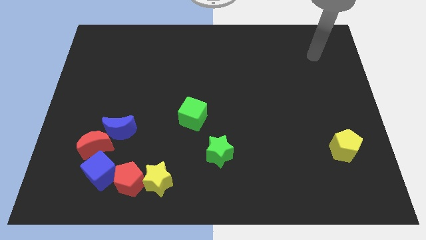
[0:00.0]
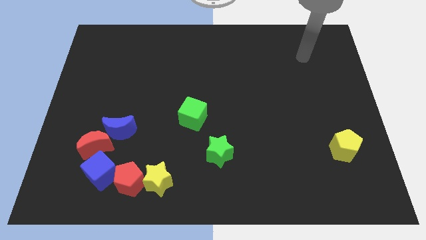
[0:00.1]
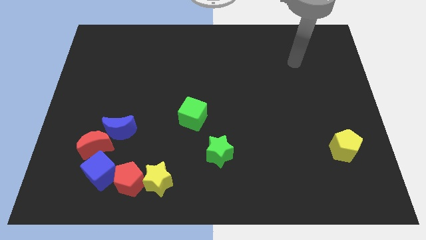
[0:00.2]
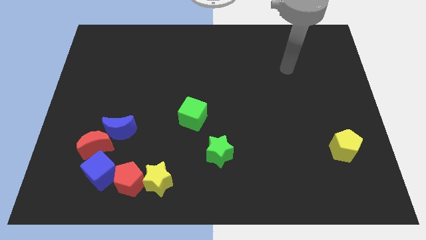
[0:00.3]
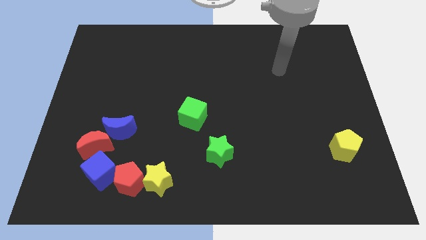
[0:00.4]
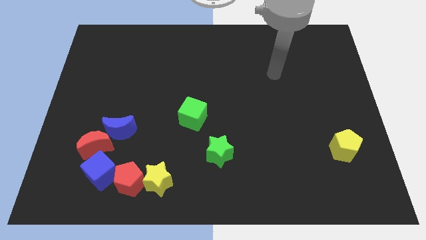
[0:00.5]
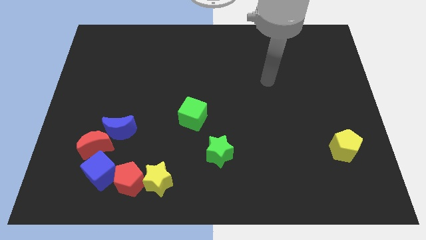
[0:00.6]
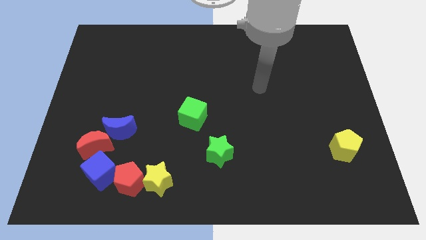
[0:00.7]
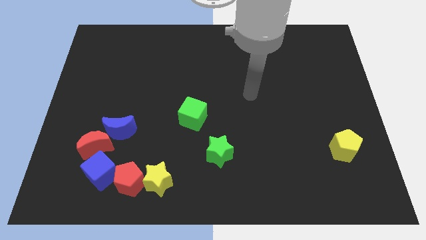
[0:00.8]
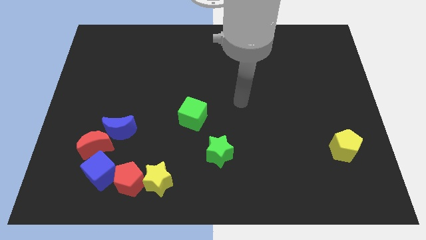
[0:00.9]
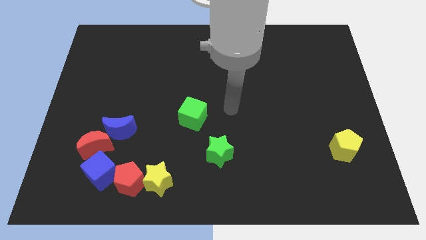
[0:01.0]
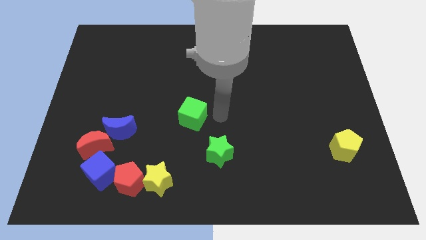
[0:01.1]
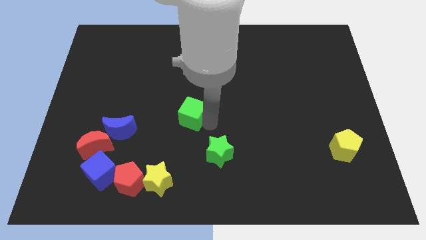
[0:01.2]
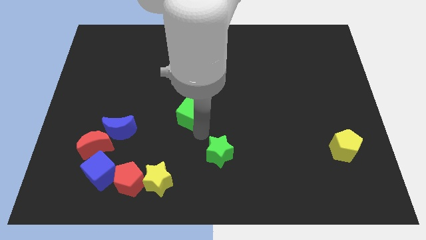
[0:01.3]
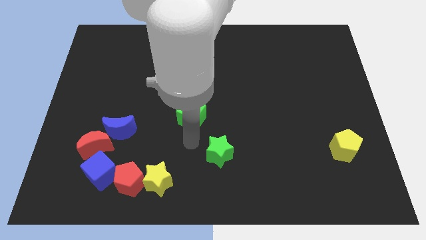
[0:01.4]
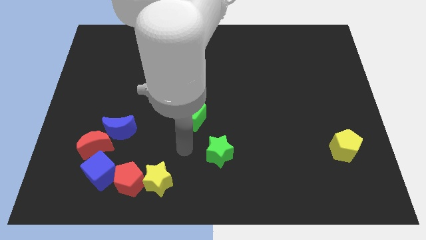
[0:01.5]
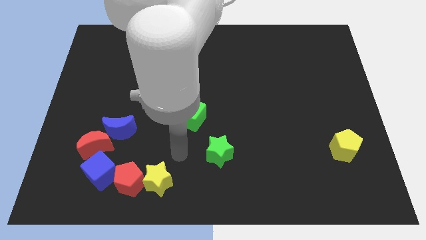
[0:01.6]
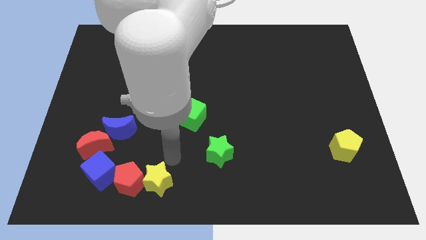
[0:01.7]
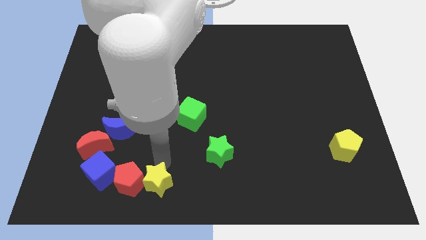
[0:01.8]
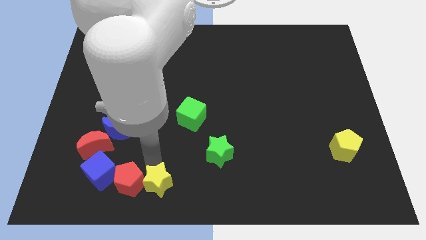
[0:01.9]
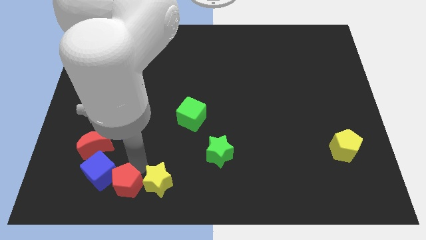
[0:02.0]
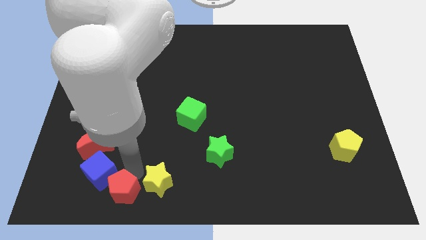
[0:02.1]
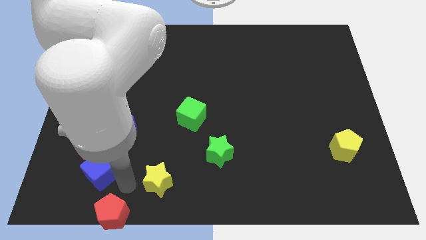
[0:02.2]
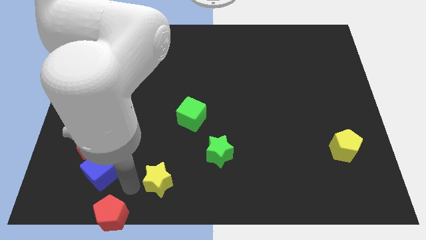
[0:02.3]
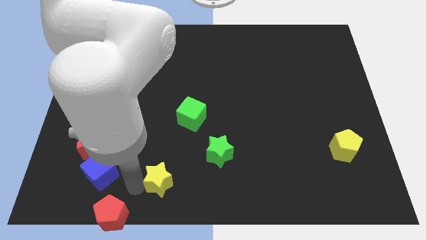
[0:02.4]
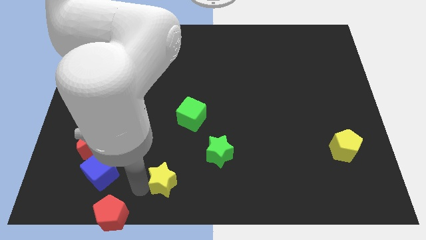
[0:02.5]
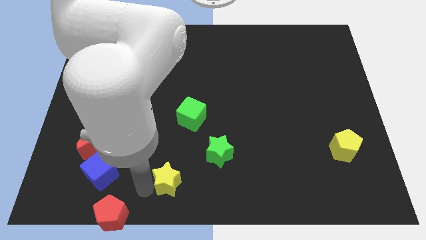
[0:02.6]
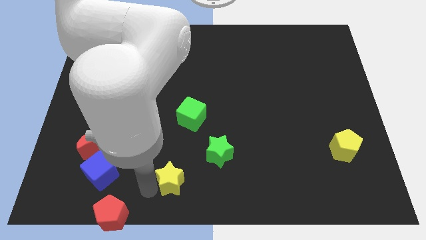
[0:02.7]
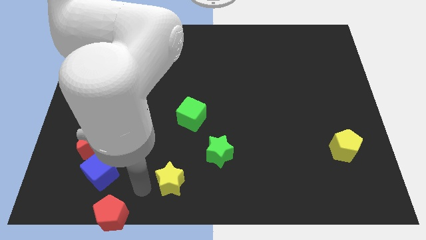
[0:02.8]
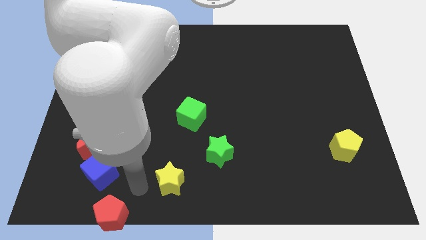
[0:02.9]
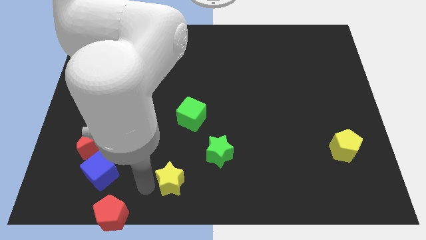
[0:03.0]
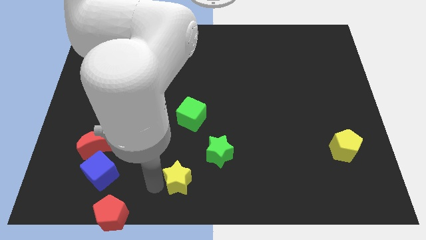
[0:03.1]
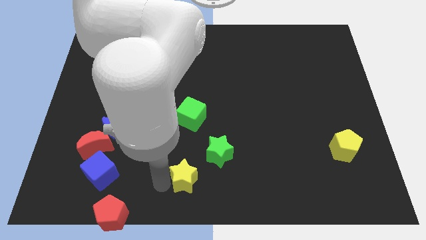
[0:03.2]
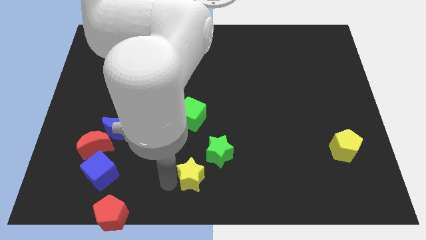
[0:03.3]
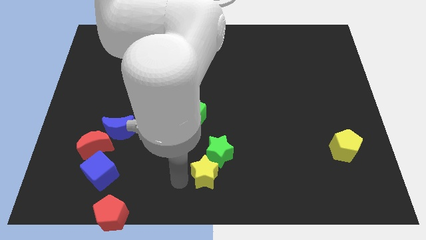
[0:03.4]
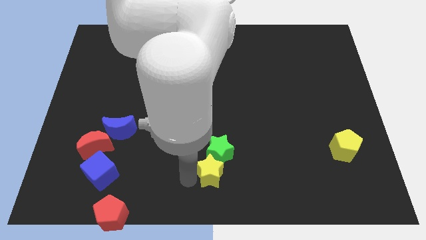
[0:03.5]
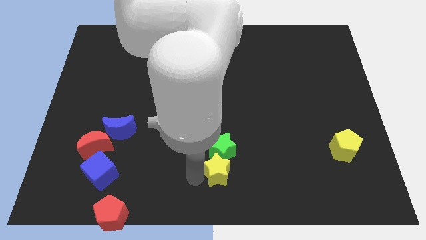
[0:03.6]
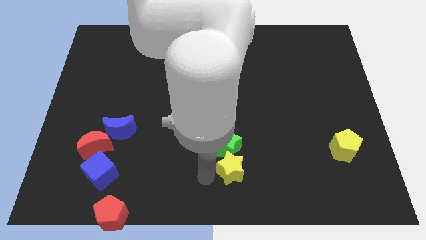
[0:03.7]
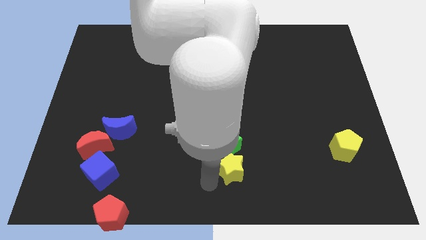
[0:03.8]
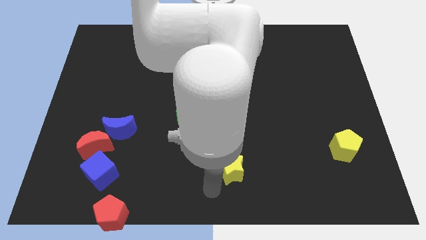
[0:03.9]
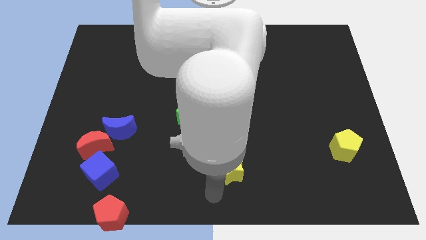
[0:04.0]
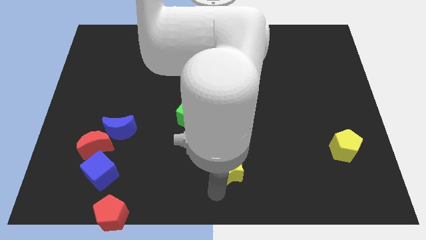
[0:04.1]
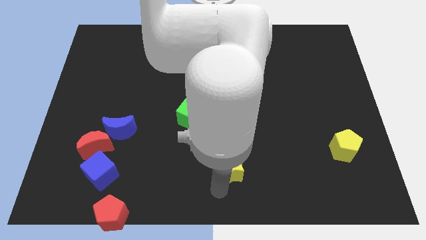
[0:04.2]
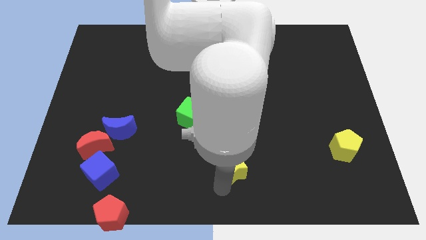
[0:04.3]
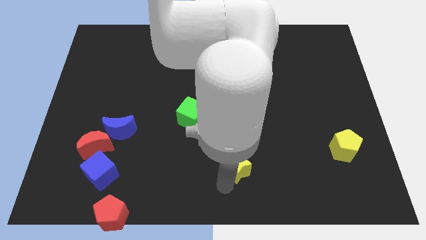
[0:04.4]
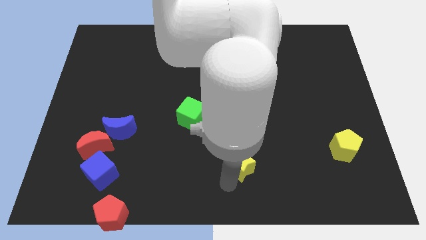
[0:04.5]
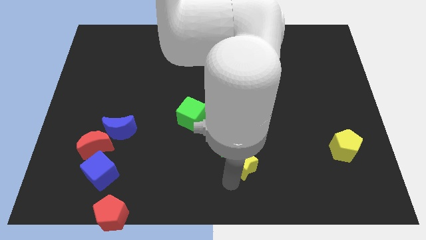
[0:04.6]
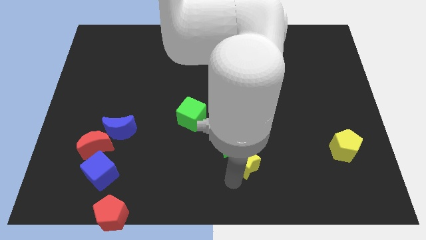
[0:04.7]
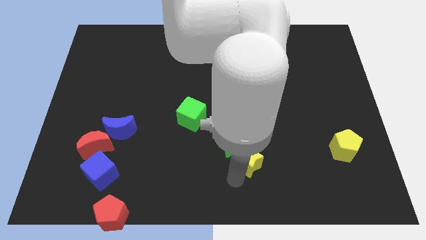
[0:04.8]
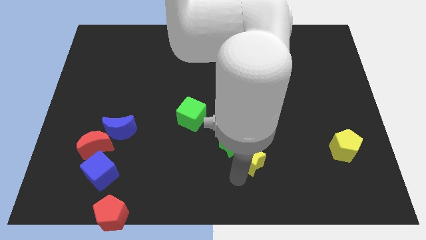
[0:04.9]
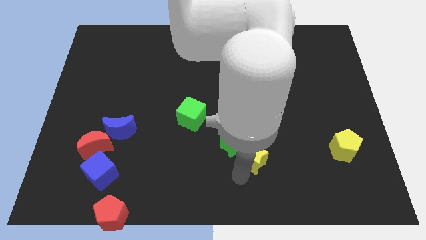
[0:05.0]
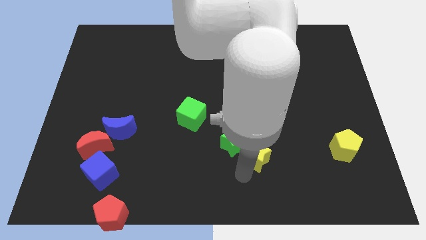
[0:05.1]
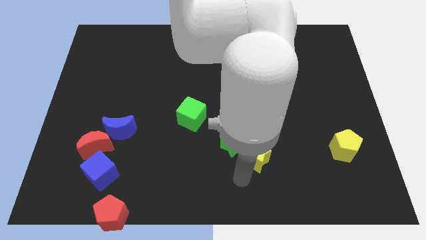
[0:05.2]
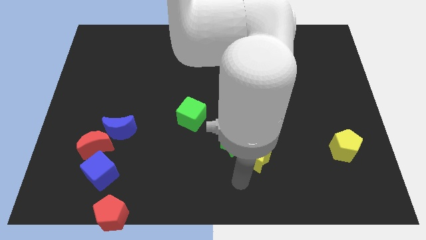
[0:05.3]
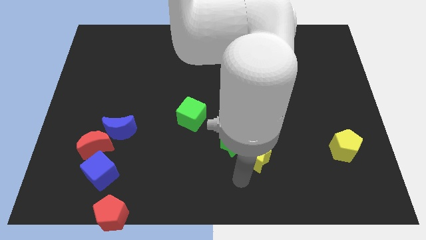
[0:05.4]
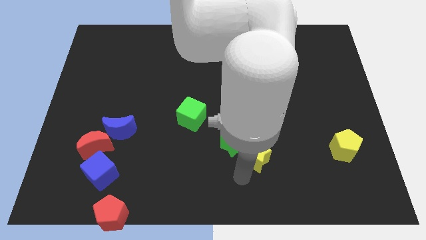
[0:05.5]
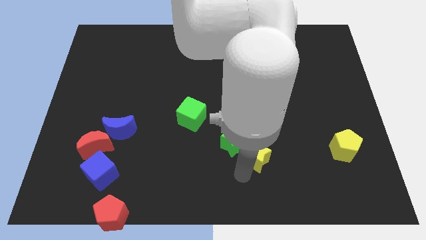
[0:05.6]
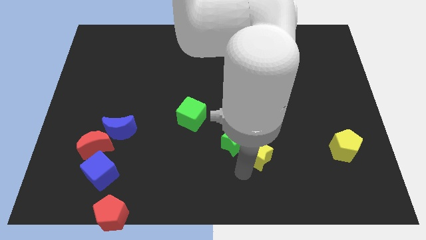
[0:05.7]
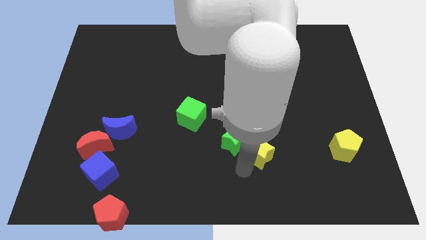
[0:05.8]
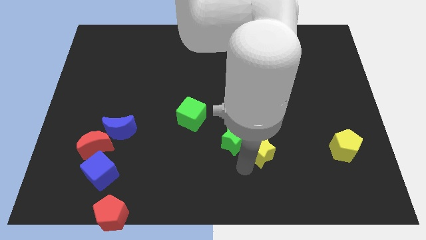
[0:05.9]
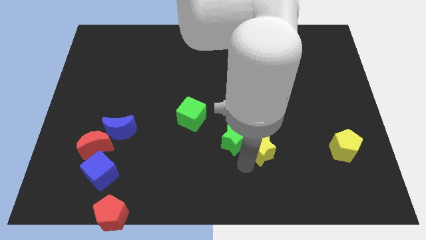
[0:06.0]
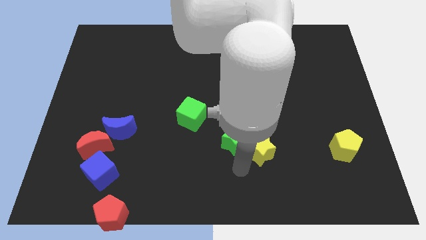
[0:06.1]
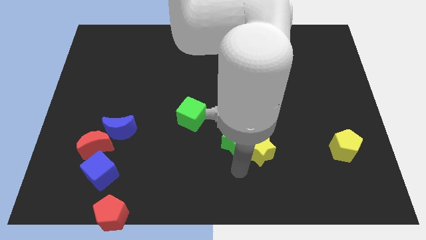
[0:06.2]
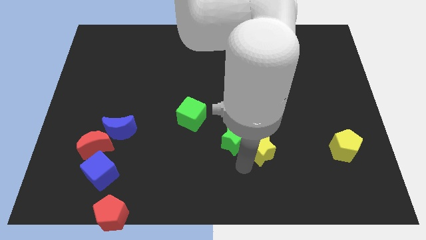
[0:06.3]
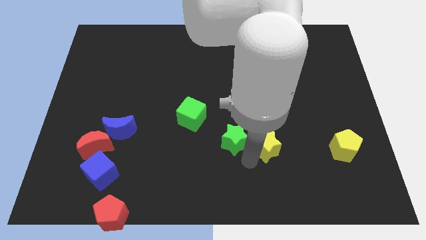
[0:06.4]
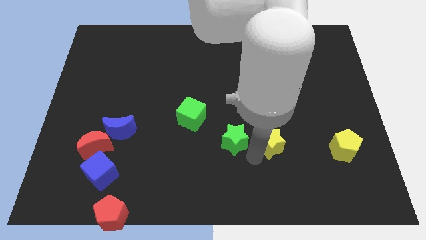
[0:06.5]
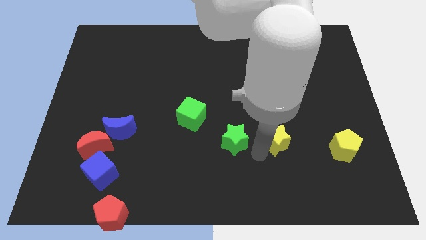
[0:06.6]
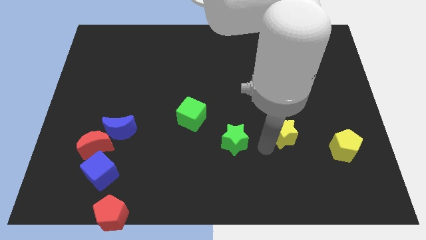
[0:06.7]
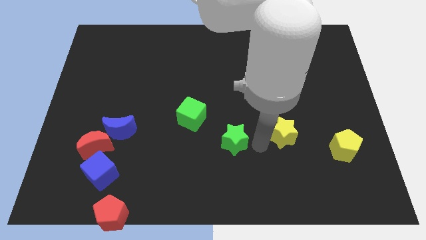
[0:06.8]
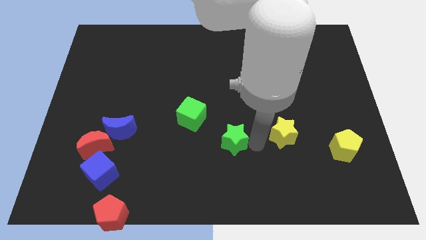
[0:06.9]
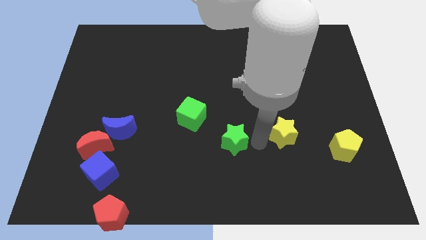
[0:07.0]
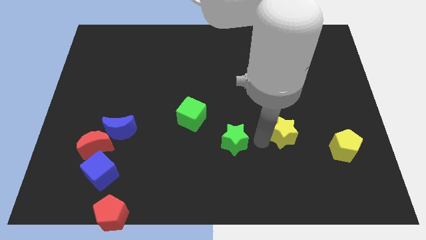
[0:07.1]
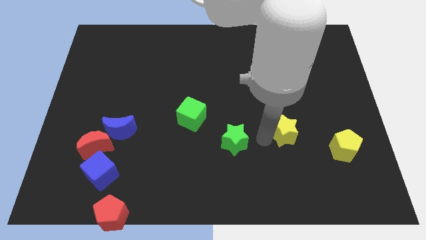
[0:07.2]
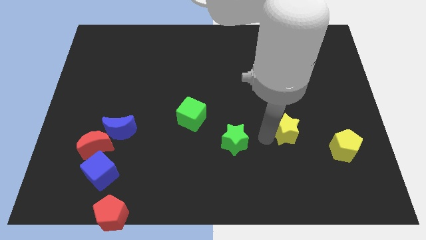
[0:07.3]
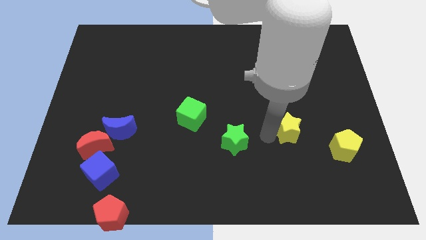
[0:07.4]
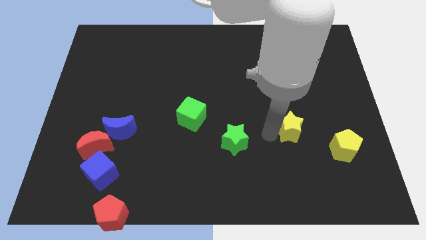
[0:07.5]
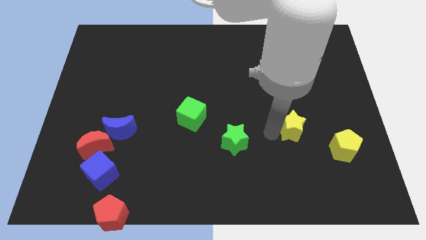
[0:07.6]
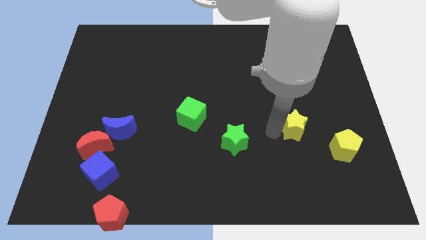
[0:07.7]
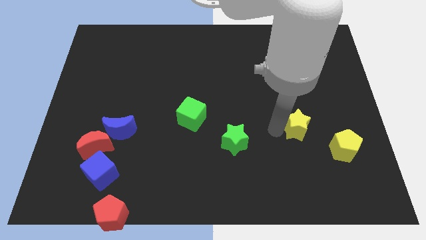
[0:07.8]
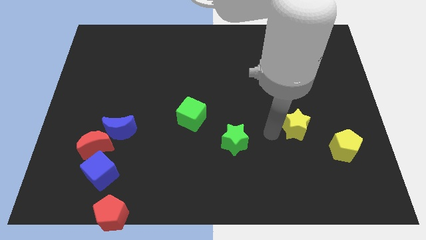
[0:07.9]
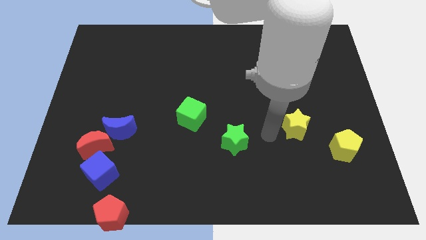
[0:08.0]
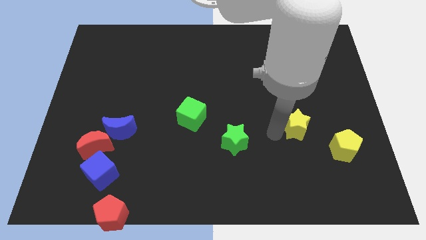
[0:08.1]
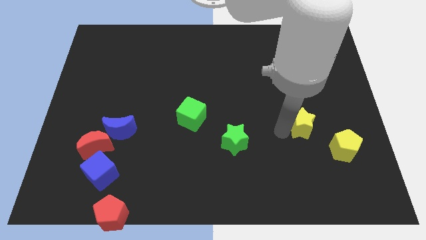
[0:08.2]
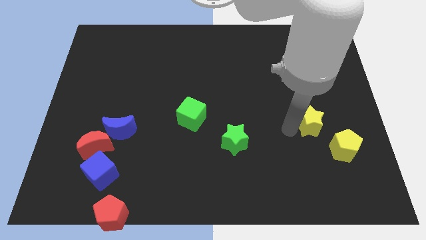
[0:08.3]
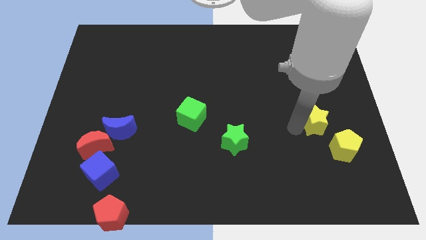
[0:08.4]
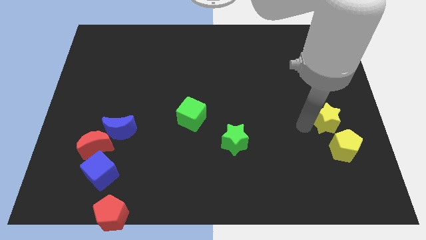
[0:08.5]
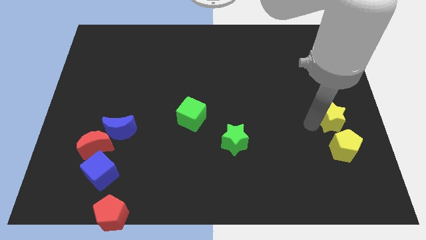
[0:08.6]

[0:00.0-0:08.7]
push the yellow star to the center right
